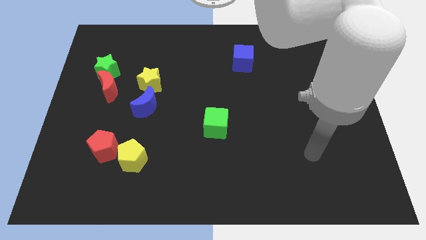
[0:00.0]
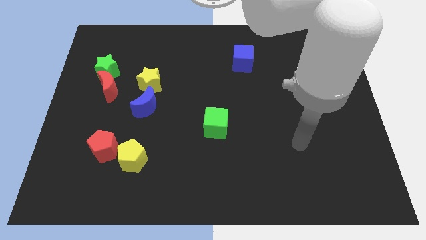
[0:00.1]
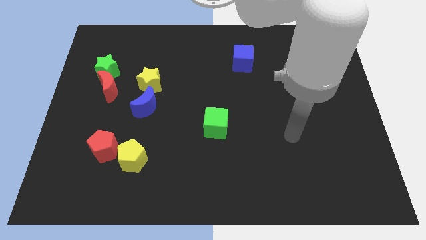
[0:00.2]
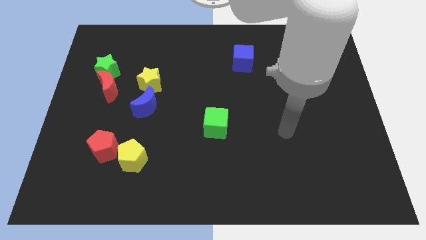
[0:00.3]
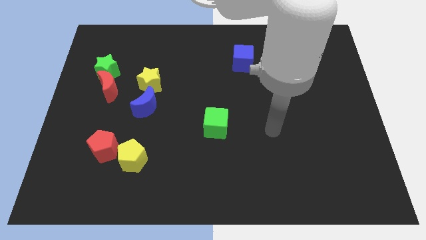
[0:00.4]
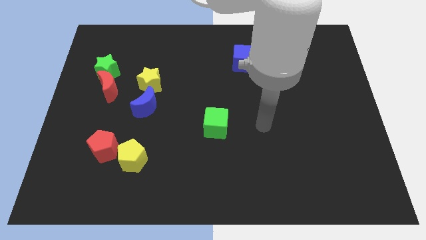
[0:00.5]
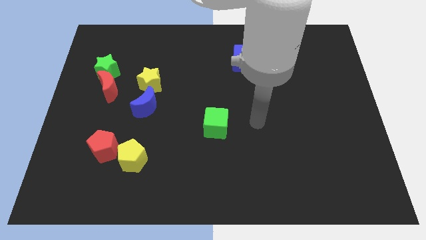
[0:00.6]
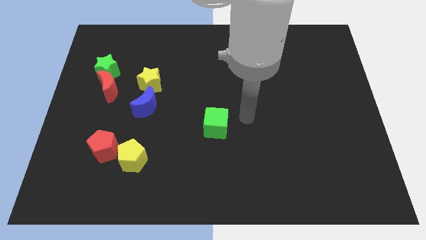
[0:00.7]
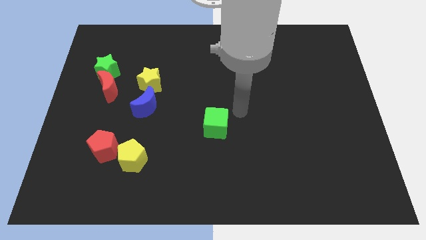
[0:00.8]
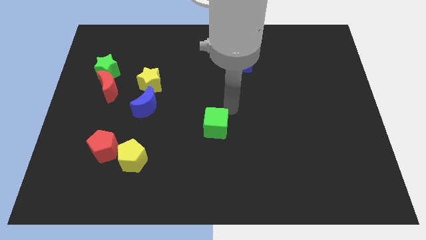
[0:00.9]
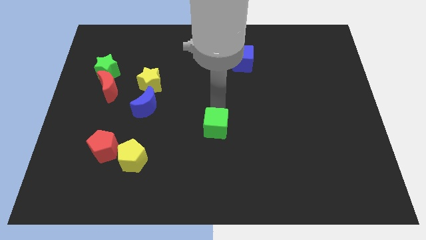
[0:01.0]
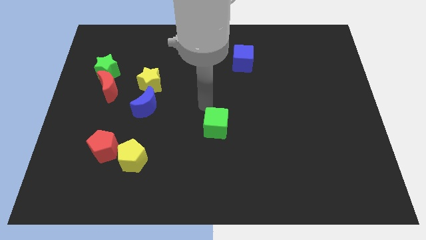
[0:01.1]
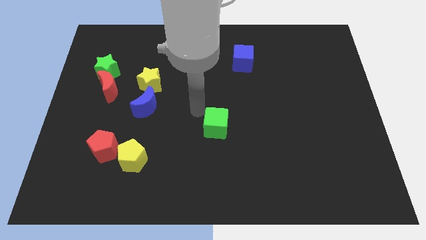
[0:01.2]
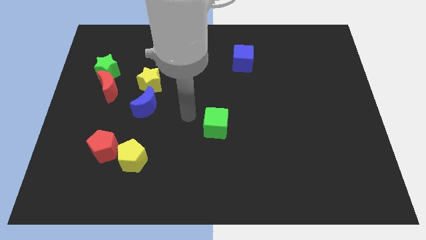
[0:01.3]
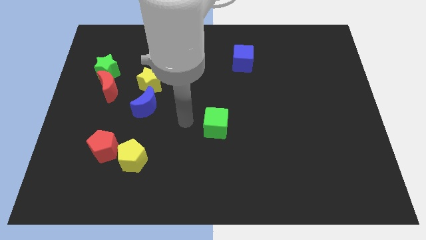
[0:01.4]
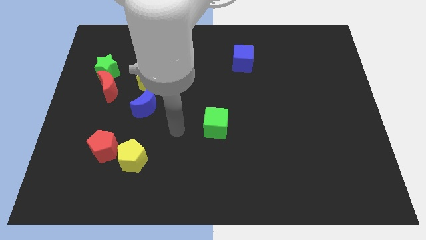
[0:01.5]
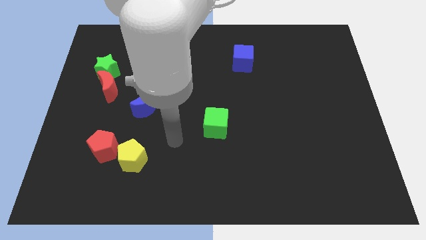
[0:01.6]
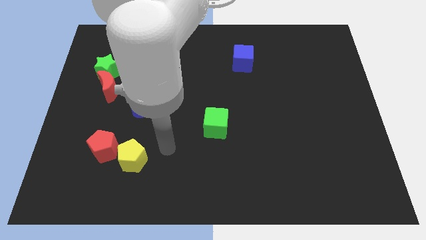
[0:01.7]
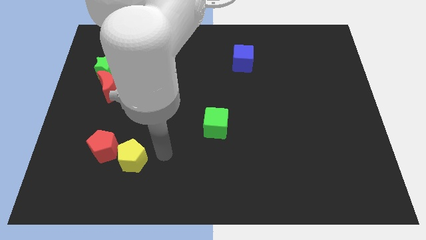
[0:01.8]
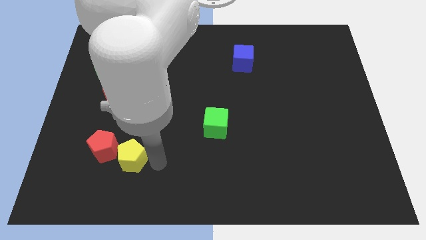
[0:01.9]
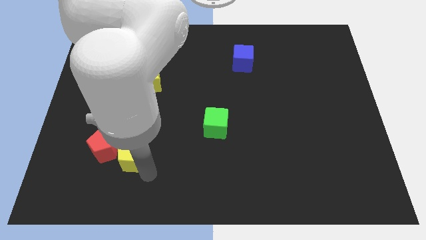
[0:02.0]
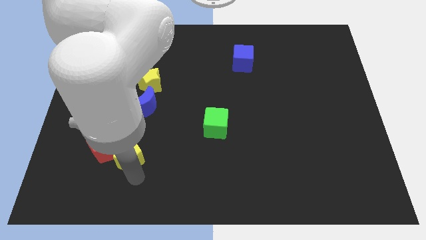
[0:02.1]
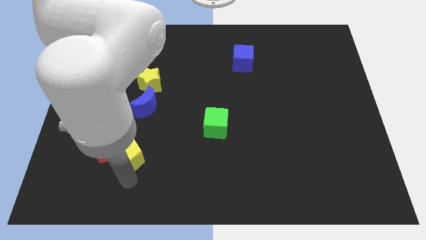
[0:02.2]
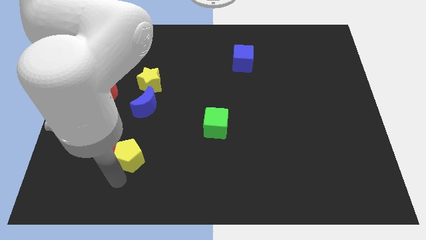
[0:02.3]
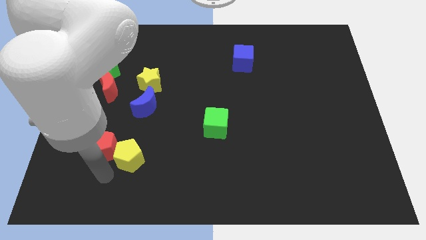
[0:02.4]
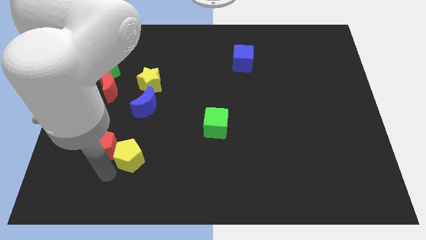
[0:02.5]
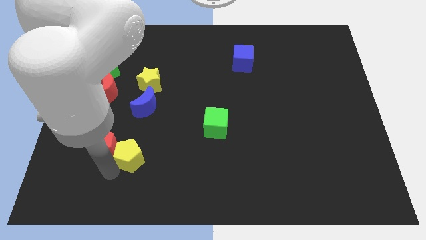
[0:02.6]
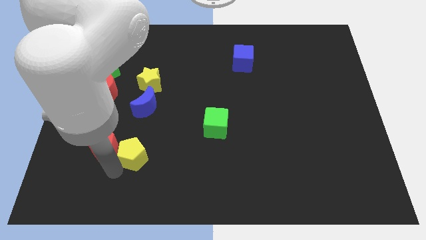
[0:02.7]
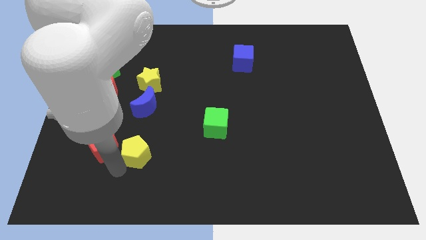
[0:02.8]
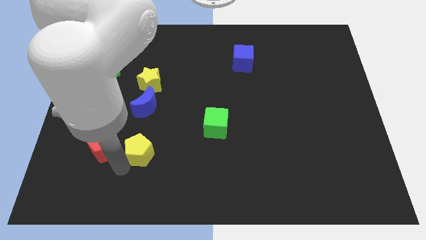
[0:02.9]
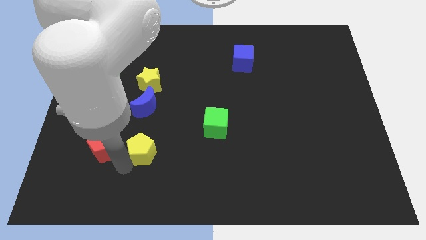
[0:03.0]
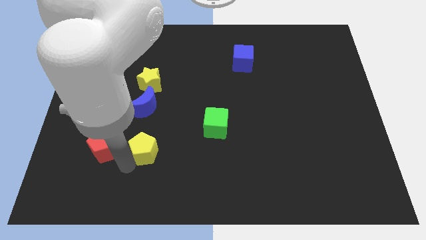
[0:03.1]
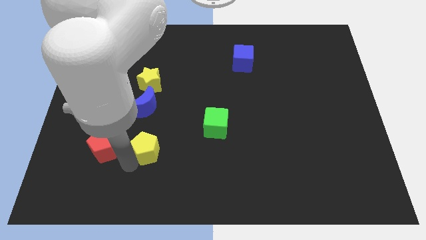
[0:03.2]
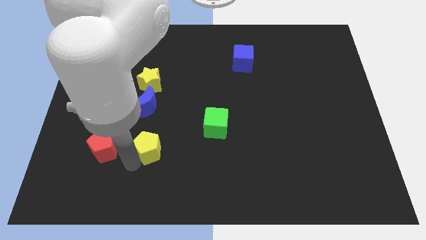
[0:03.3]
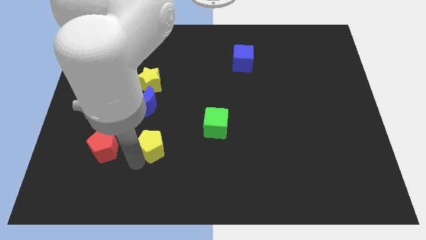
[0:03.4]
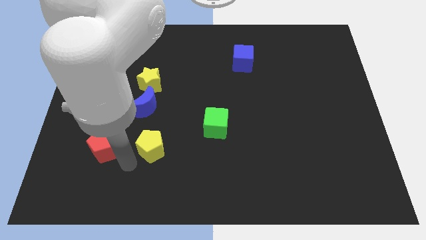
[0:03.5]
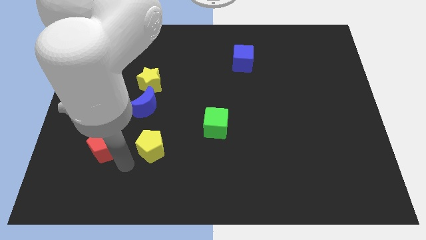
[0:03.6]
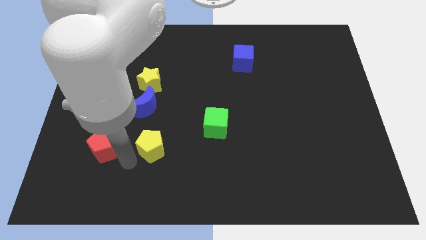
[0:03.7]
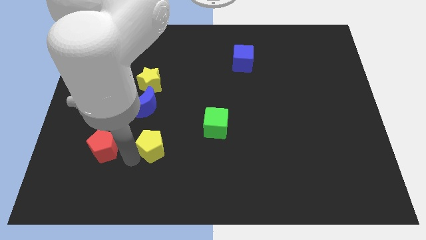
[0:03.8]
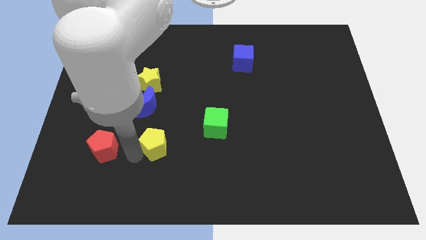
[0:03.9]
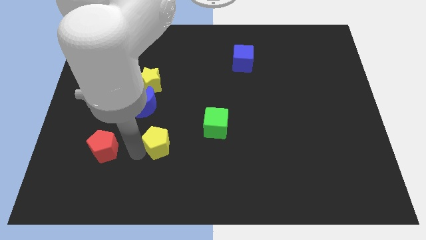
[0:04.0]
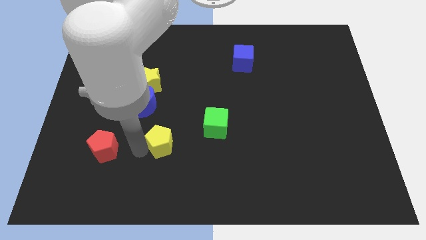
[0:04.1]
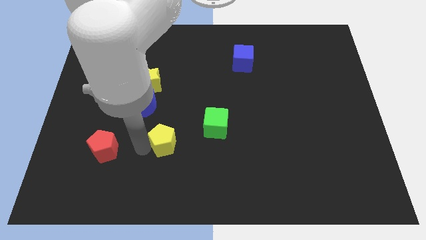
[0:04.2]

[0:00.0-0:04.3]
move the yellow pentagon up and right a little bit

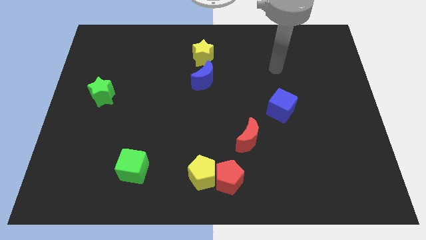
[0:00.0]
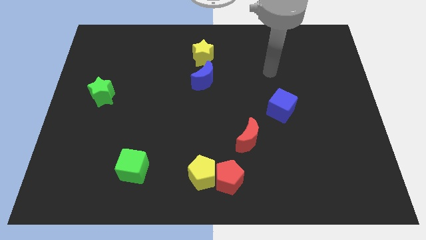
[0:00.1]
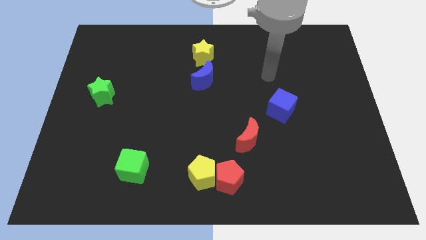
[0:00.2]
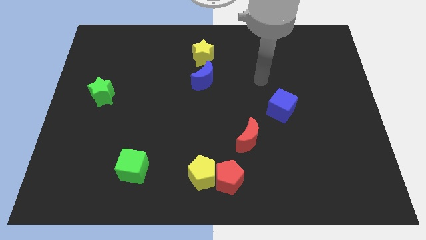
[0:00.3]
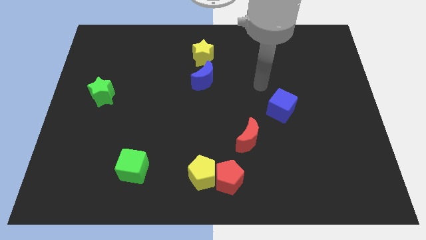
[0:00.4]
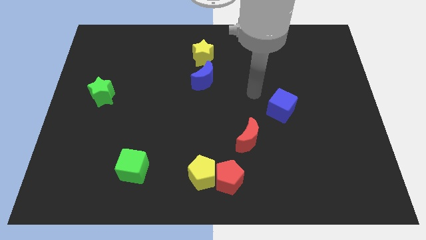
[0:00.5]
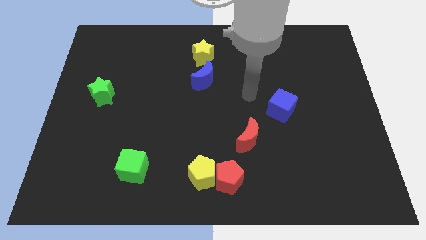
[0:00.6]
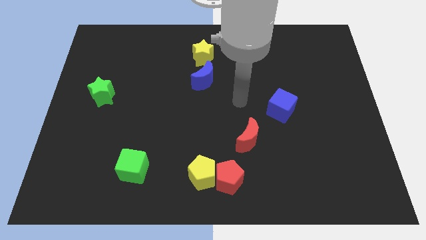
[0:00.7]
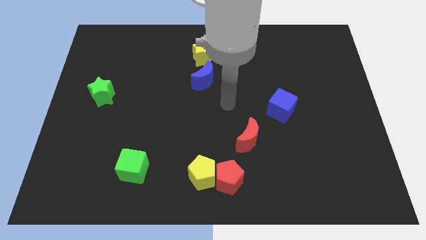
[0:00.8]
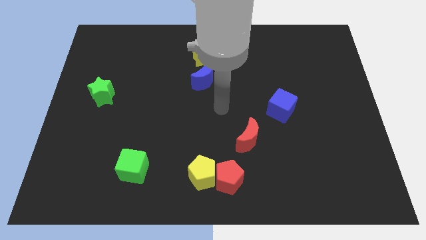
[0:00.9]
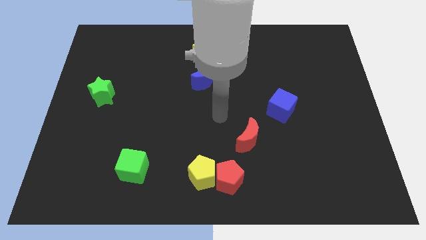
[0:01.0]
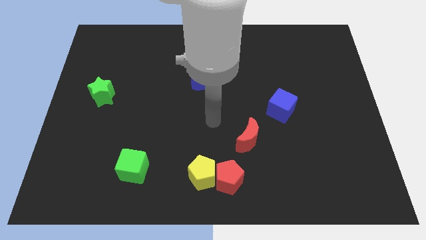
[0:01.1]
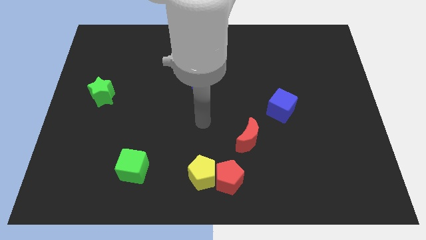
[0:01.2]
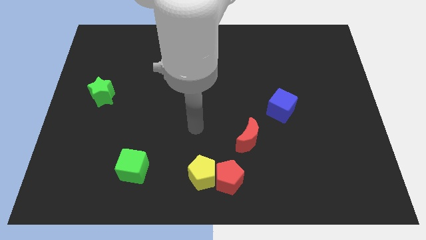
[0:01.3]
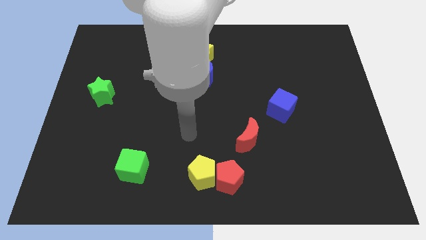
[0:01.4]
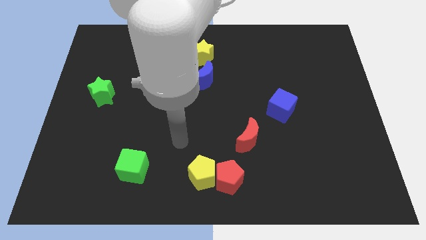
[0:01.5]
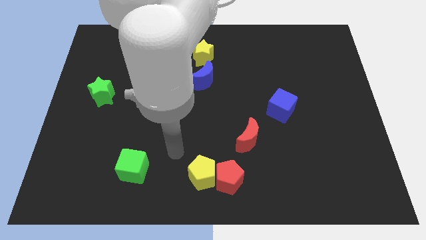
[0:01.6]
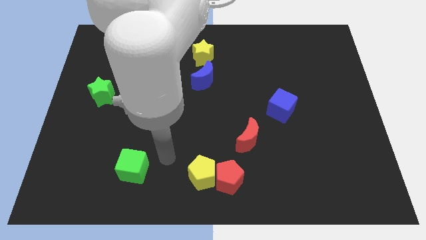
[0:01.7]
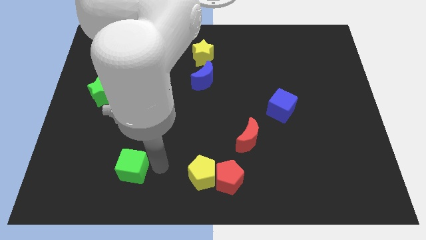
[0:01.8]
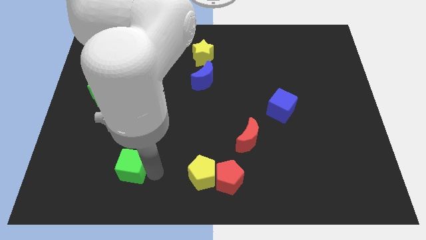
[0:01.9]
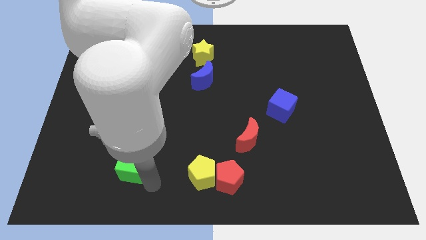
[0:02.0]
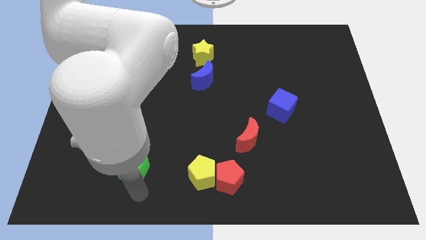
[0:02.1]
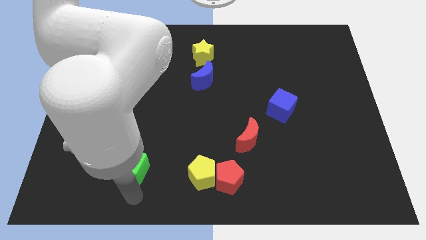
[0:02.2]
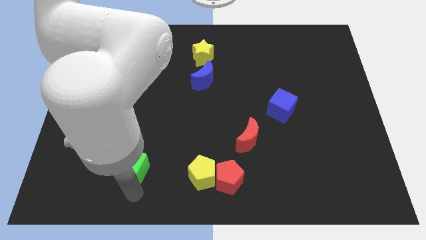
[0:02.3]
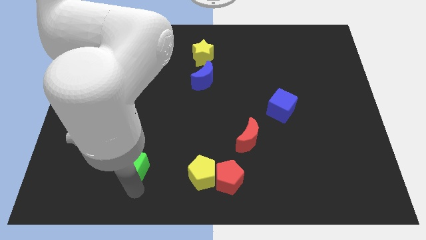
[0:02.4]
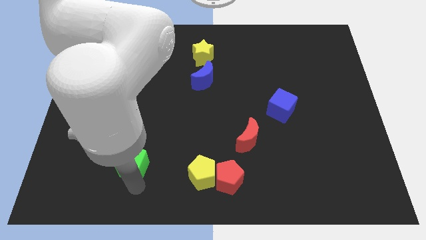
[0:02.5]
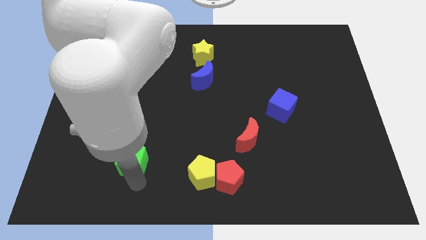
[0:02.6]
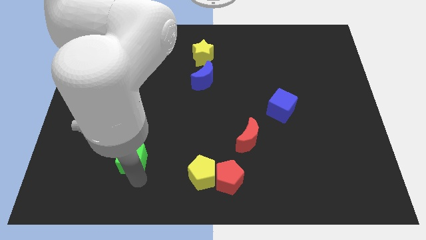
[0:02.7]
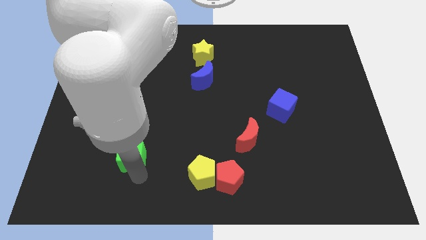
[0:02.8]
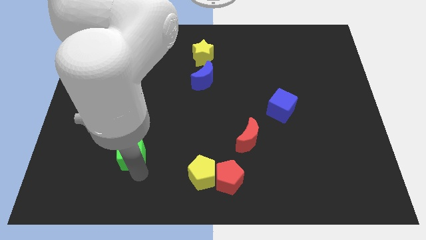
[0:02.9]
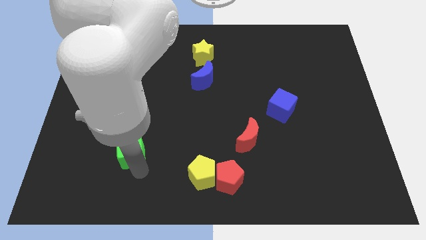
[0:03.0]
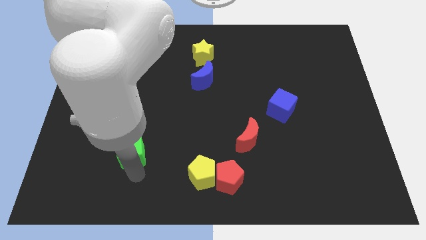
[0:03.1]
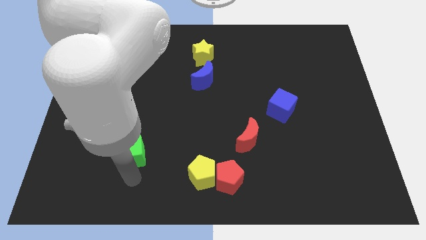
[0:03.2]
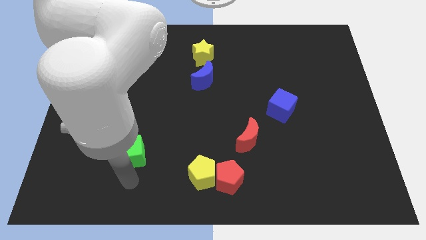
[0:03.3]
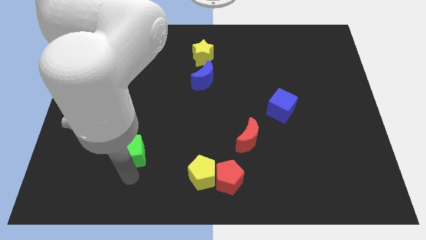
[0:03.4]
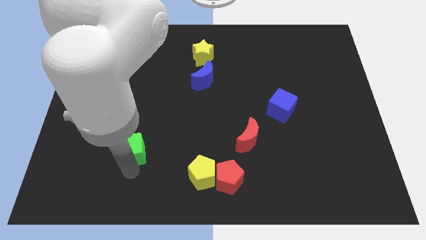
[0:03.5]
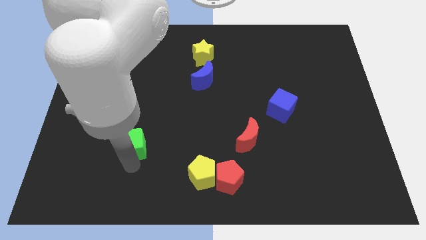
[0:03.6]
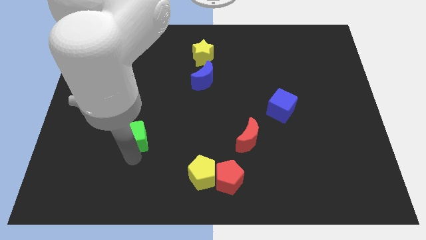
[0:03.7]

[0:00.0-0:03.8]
slide the green cube somewhat upwards

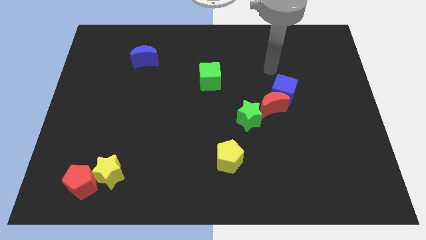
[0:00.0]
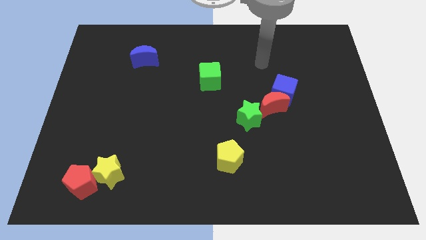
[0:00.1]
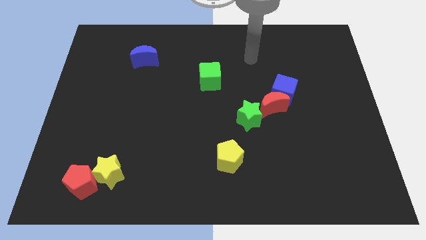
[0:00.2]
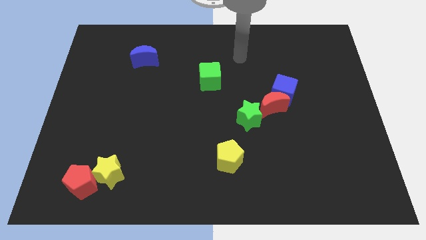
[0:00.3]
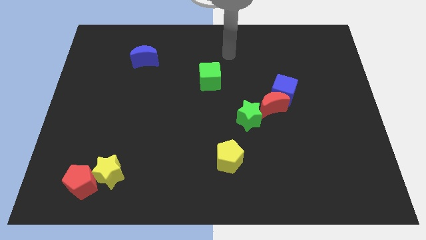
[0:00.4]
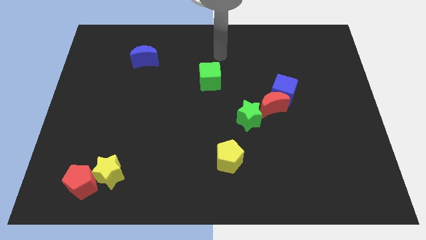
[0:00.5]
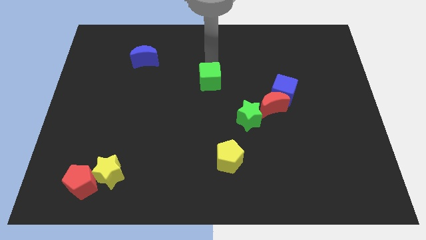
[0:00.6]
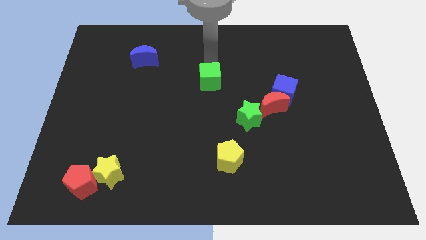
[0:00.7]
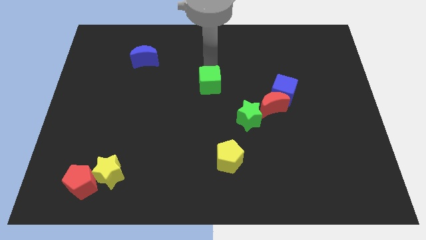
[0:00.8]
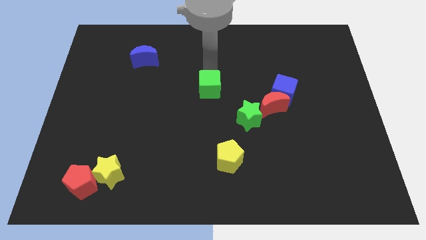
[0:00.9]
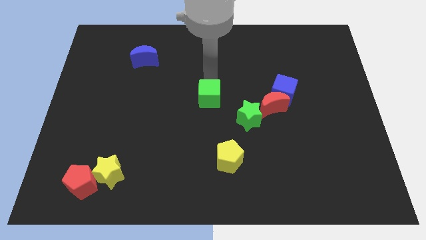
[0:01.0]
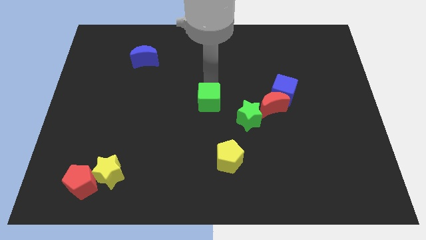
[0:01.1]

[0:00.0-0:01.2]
push the green cube down a little
